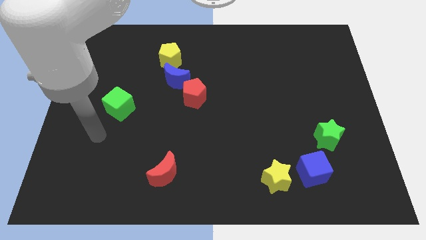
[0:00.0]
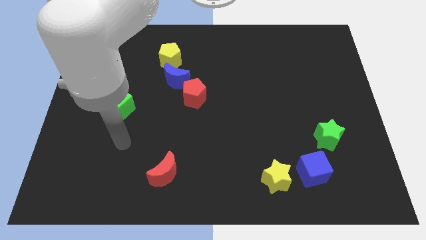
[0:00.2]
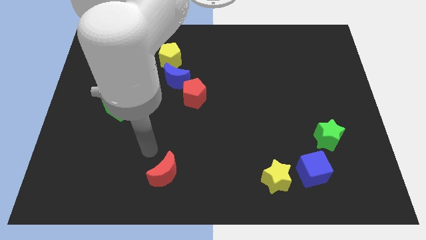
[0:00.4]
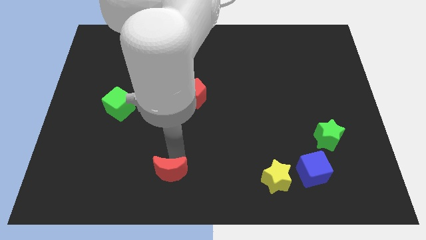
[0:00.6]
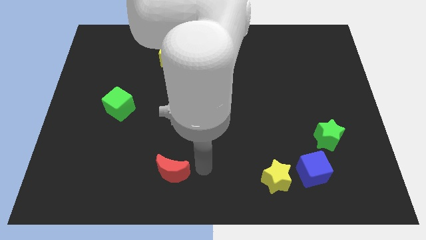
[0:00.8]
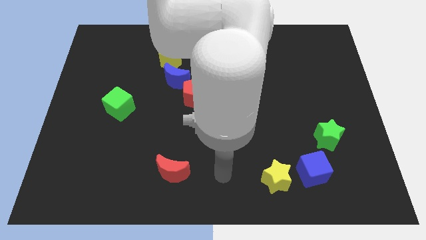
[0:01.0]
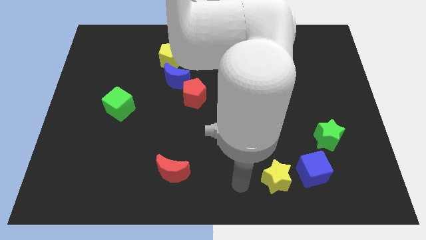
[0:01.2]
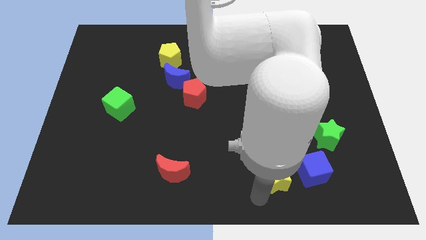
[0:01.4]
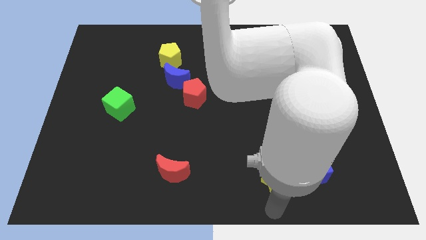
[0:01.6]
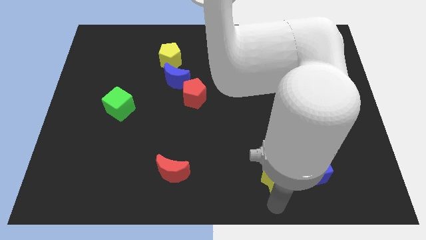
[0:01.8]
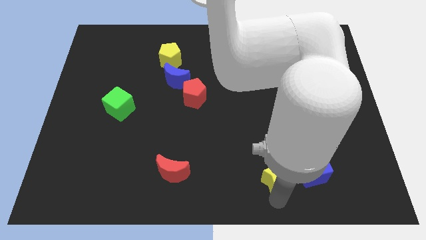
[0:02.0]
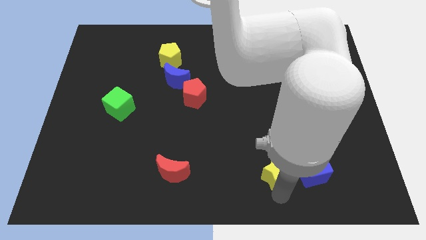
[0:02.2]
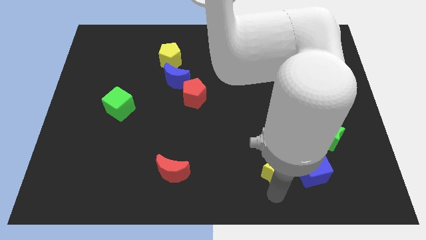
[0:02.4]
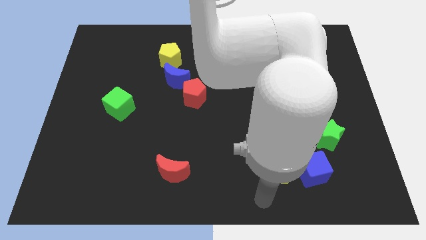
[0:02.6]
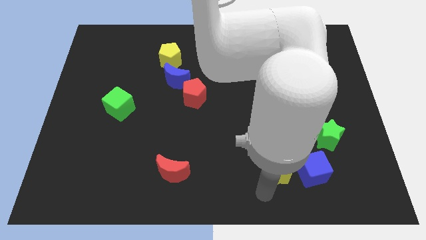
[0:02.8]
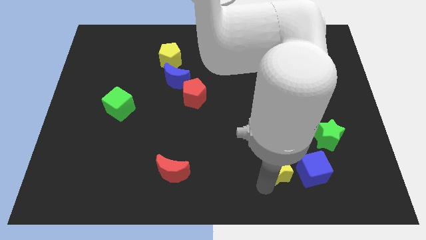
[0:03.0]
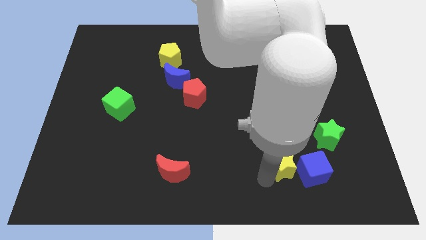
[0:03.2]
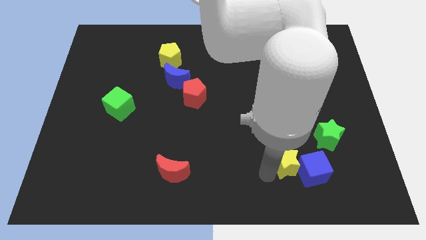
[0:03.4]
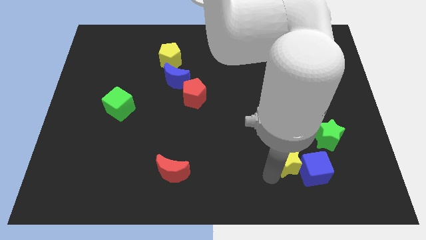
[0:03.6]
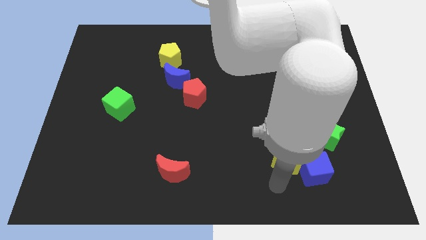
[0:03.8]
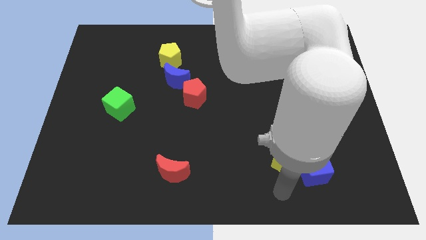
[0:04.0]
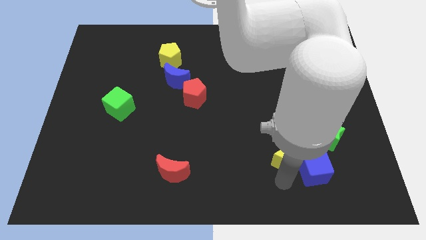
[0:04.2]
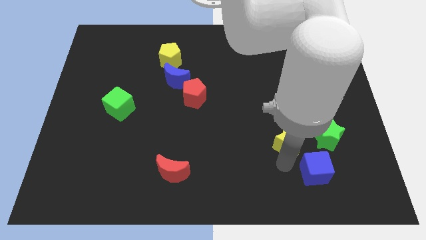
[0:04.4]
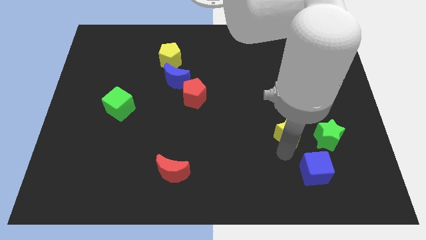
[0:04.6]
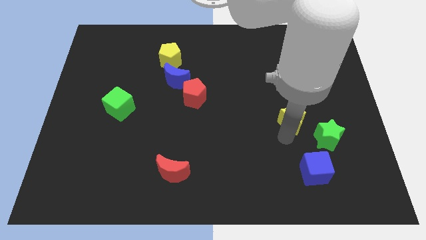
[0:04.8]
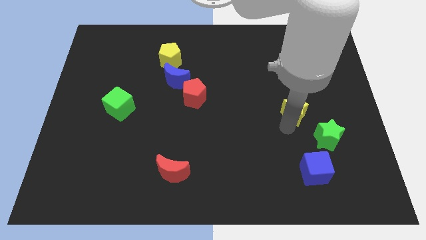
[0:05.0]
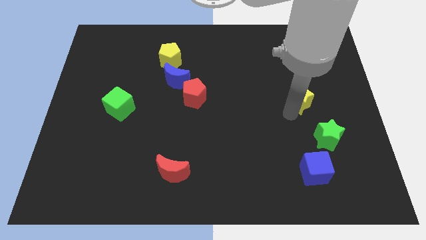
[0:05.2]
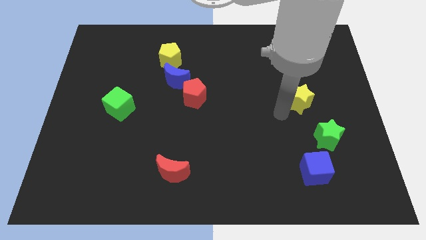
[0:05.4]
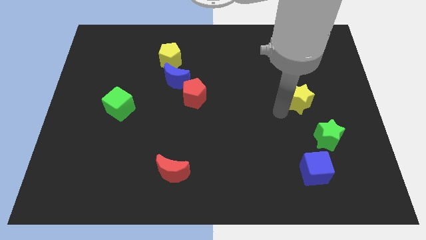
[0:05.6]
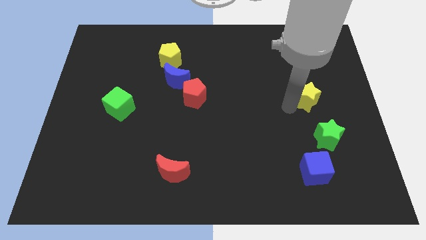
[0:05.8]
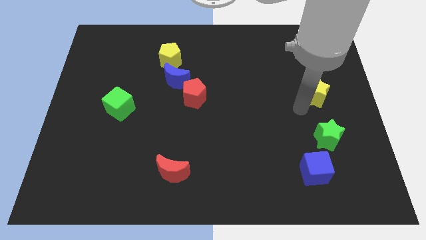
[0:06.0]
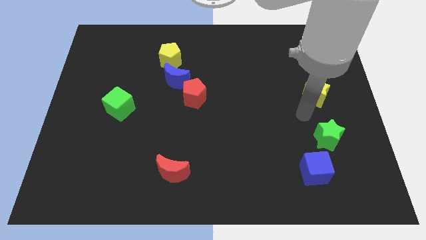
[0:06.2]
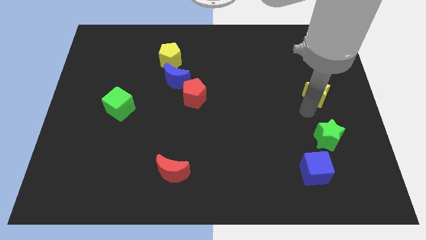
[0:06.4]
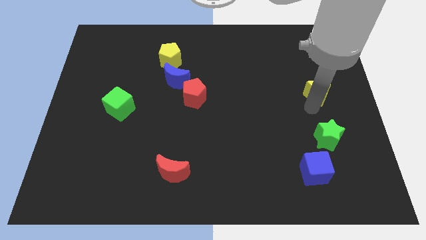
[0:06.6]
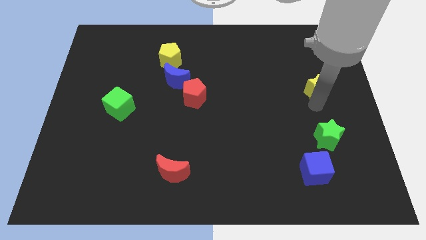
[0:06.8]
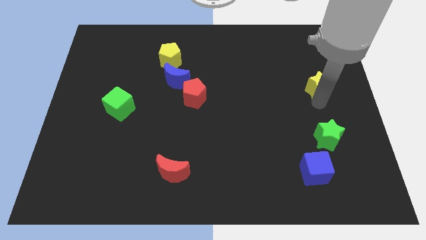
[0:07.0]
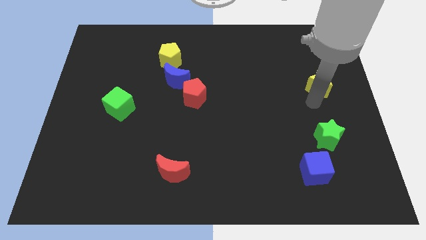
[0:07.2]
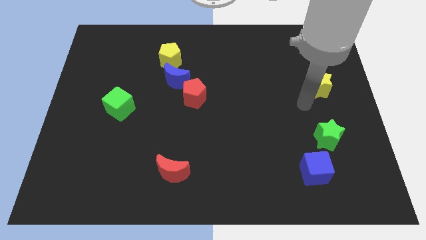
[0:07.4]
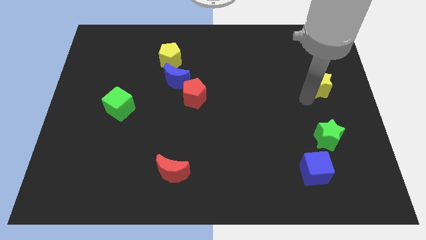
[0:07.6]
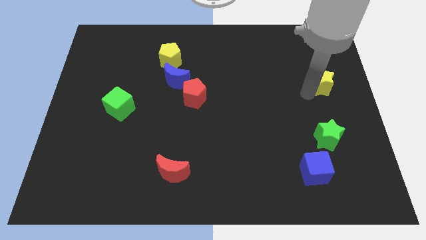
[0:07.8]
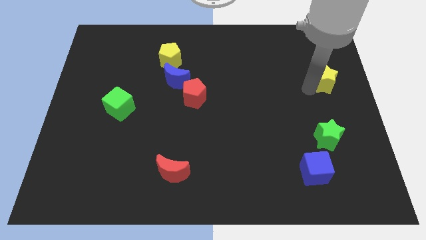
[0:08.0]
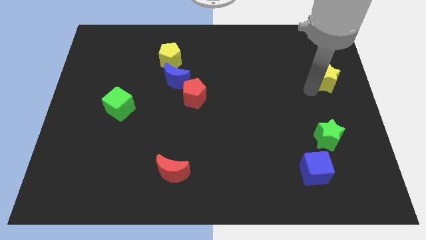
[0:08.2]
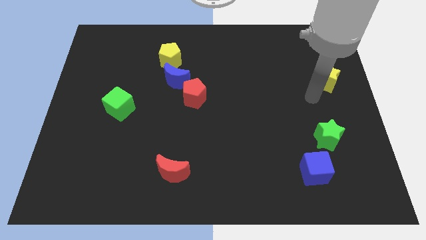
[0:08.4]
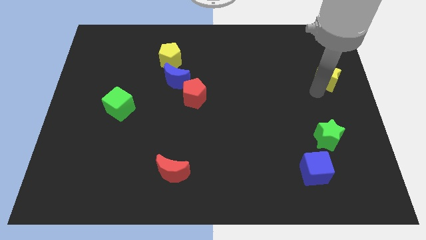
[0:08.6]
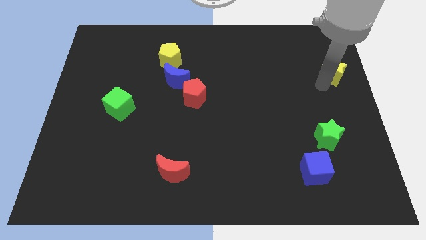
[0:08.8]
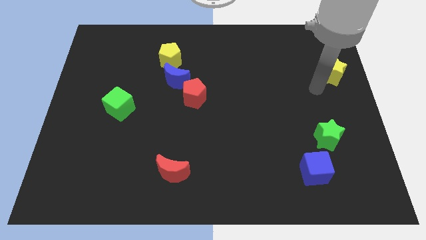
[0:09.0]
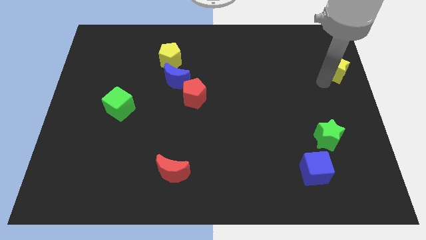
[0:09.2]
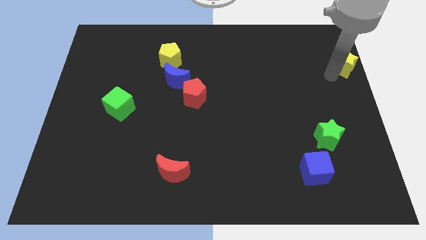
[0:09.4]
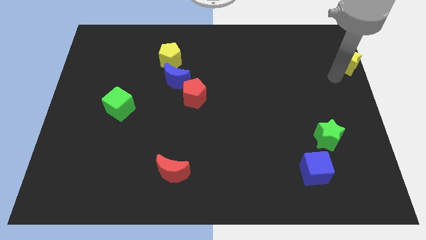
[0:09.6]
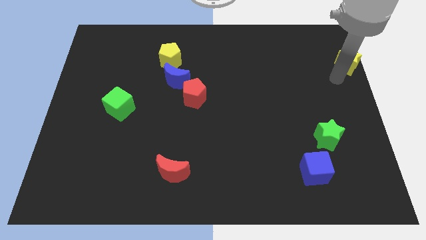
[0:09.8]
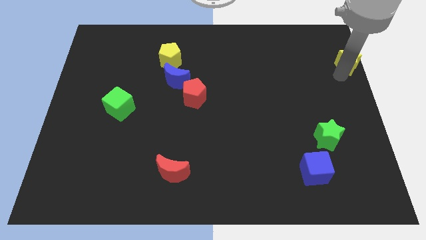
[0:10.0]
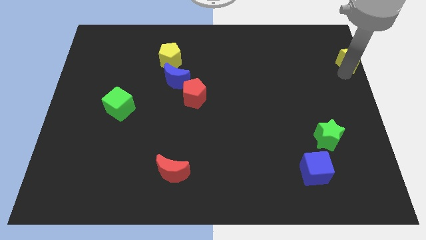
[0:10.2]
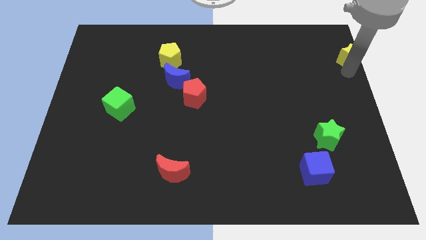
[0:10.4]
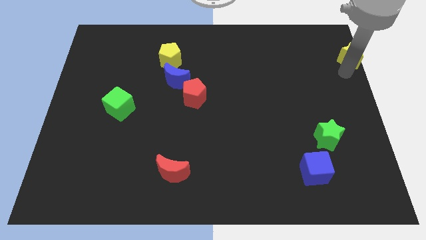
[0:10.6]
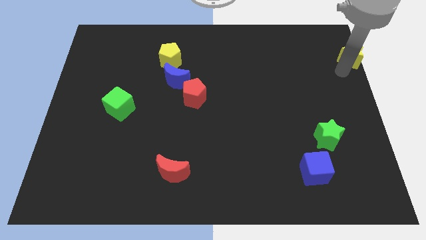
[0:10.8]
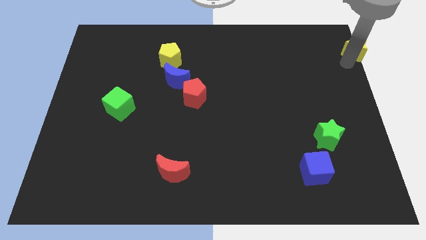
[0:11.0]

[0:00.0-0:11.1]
put the yellow star to the top right of the board
